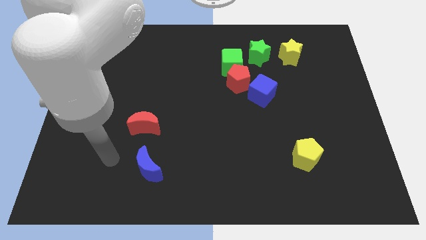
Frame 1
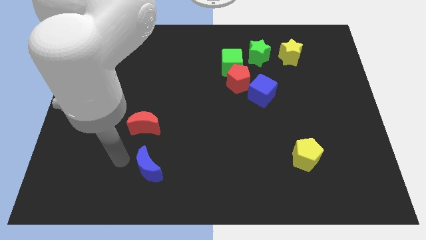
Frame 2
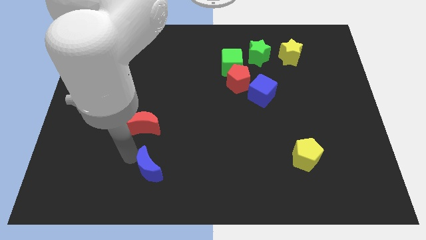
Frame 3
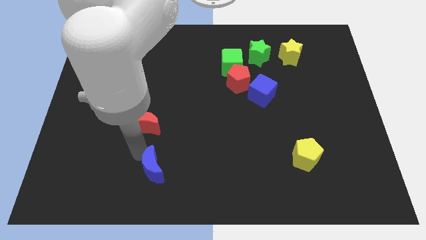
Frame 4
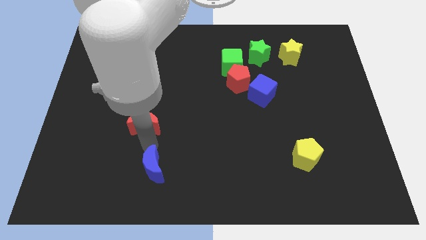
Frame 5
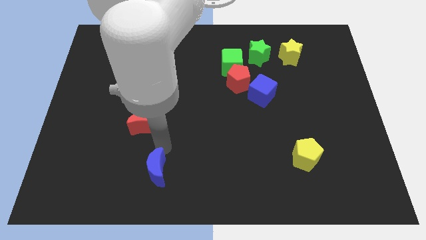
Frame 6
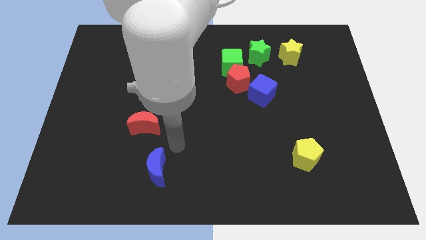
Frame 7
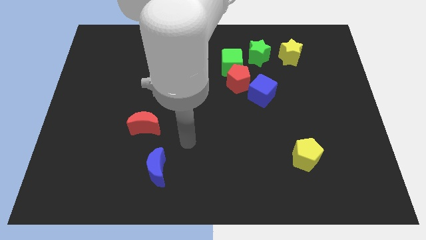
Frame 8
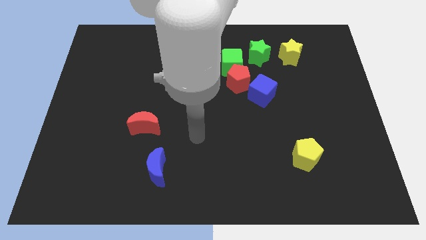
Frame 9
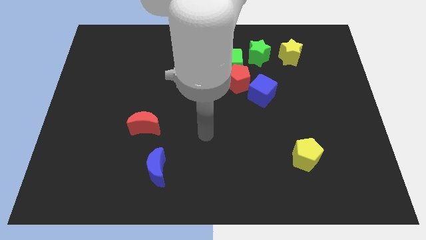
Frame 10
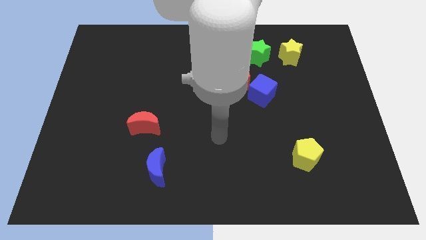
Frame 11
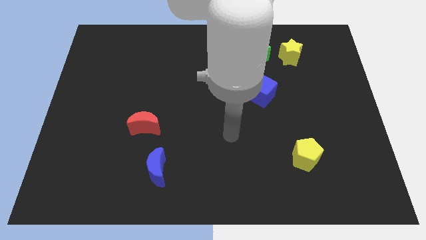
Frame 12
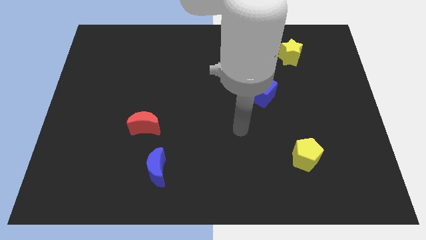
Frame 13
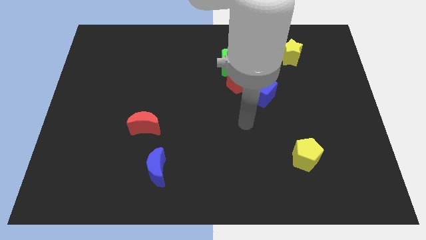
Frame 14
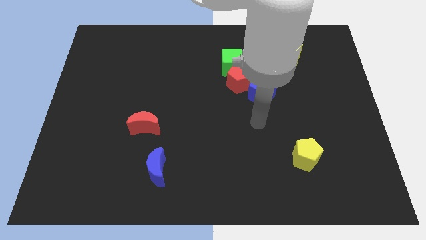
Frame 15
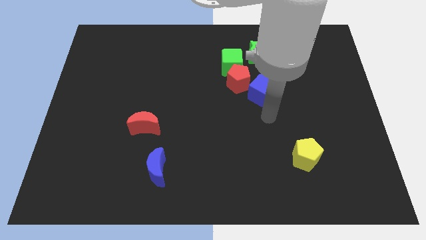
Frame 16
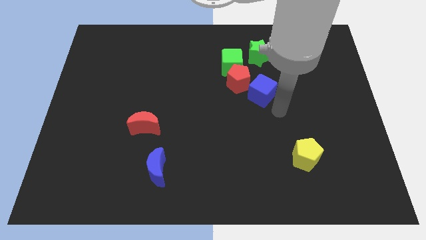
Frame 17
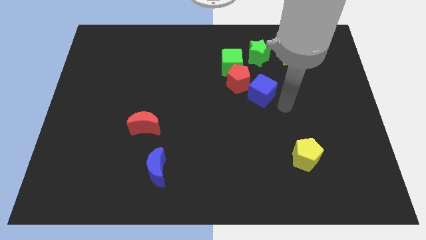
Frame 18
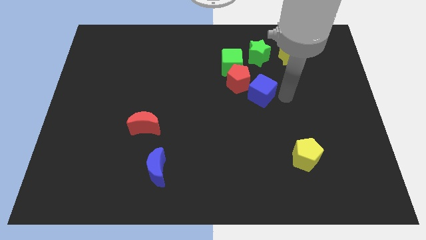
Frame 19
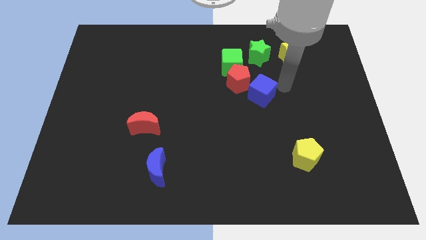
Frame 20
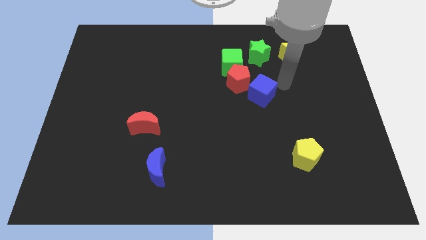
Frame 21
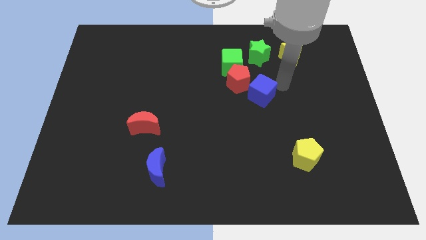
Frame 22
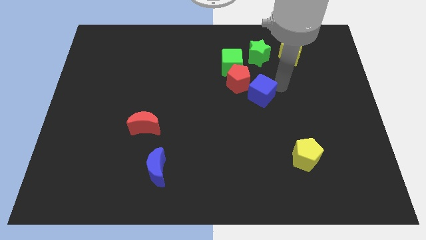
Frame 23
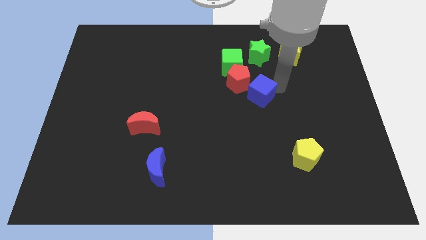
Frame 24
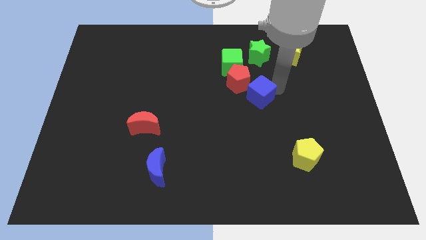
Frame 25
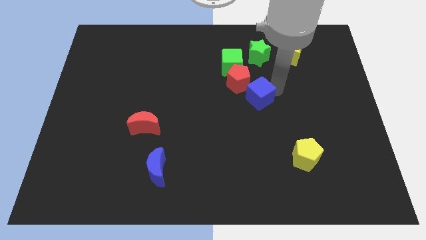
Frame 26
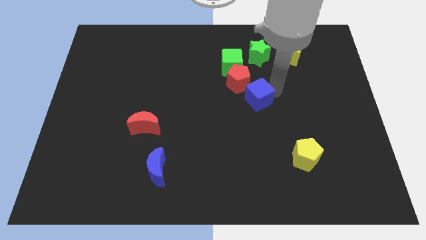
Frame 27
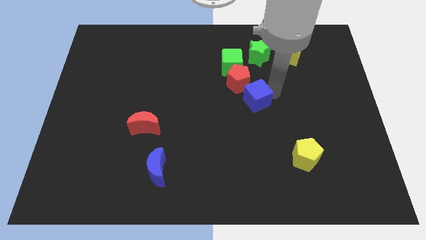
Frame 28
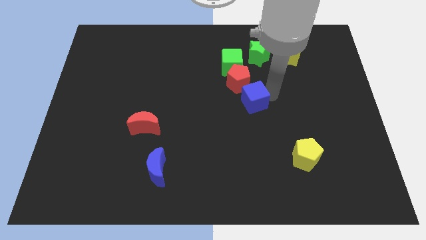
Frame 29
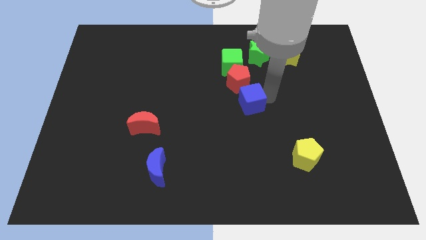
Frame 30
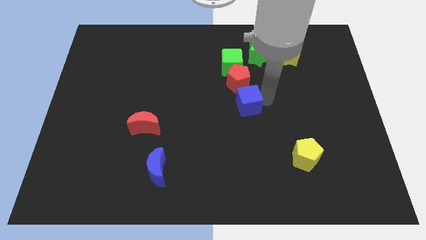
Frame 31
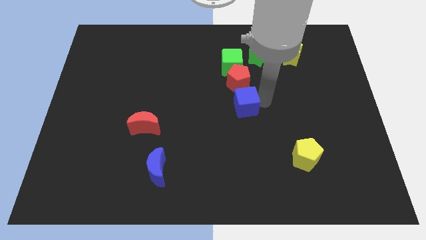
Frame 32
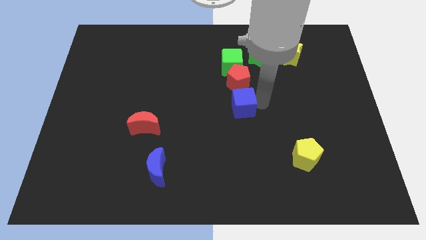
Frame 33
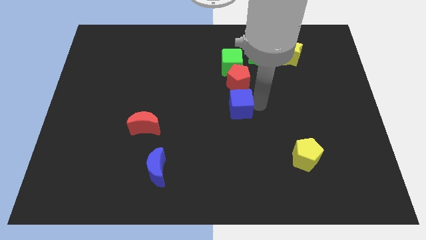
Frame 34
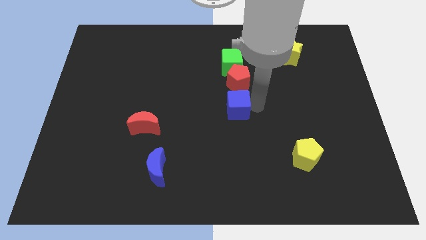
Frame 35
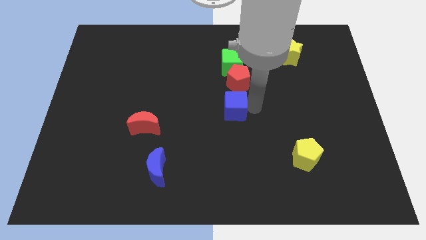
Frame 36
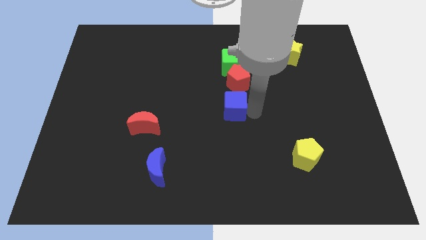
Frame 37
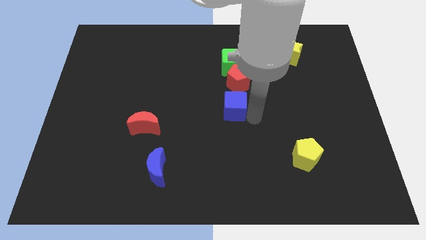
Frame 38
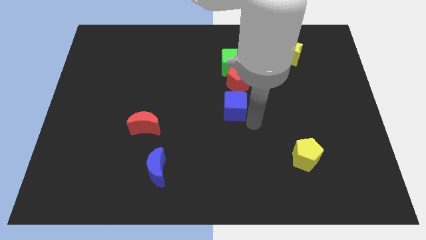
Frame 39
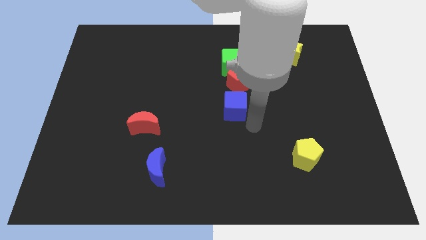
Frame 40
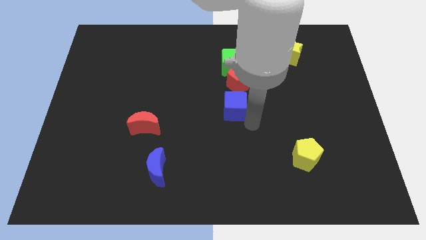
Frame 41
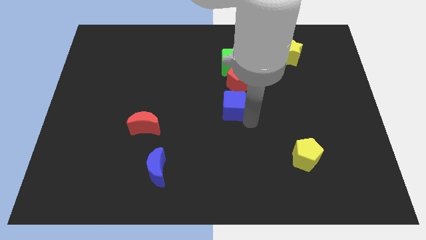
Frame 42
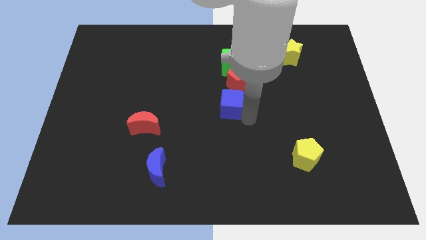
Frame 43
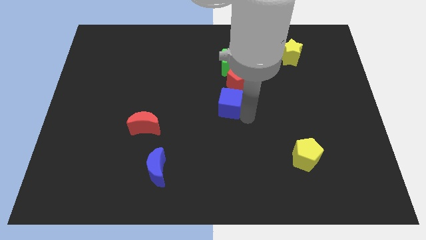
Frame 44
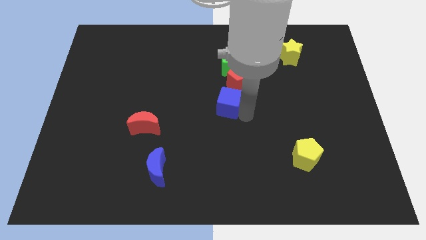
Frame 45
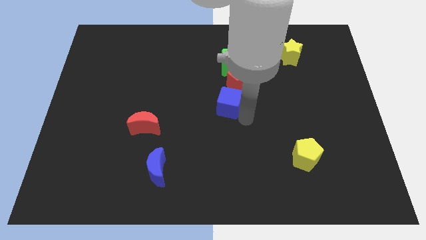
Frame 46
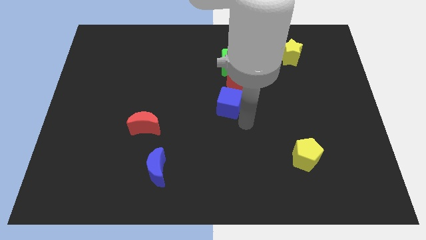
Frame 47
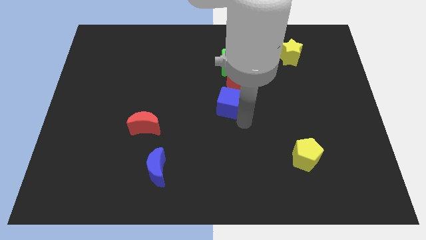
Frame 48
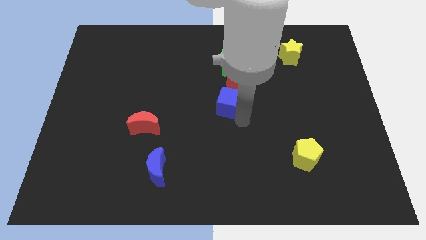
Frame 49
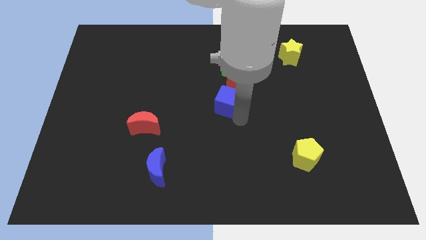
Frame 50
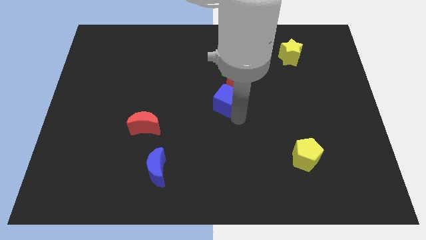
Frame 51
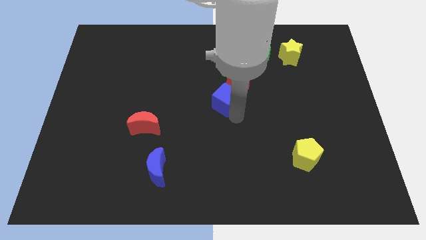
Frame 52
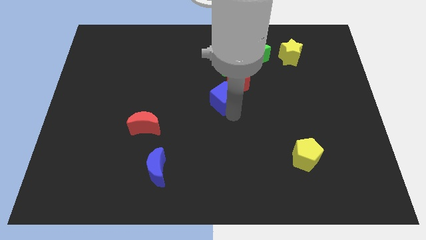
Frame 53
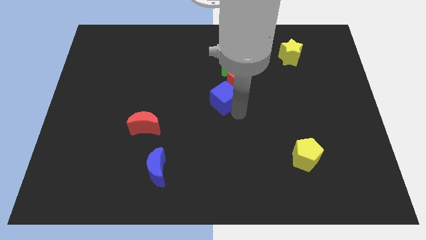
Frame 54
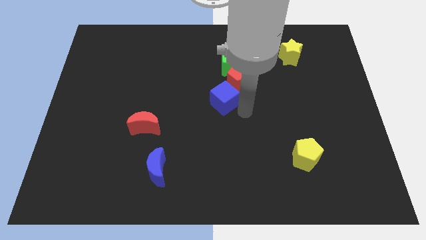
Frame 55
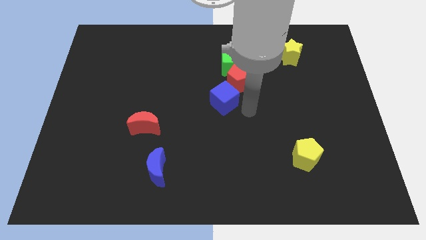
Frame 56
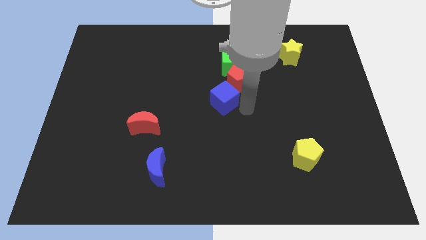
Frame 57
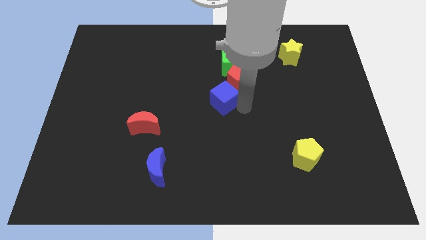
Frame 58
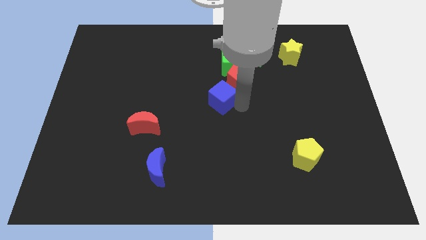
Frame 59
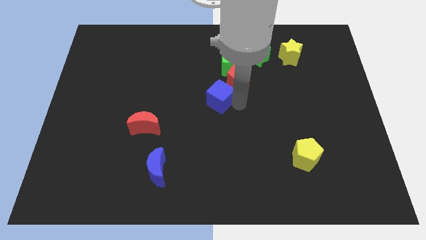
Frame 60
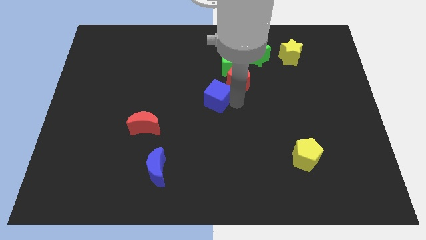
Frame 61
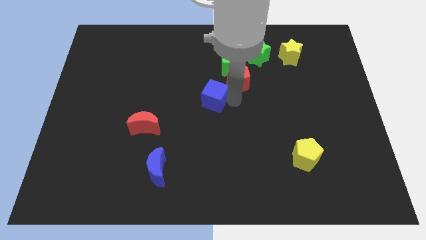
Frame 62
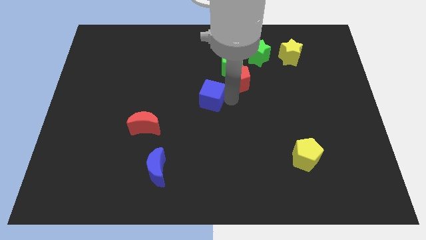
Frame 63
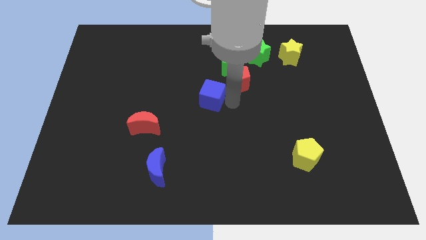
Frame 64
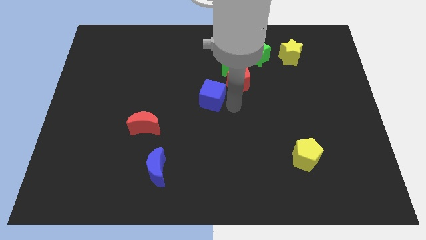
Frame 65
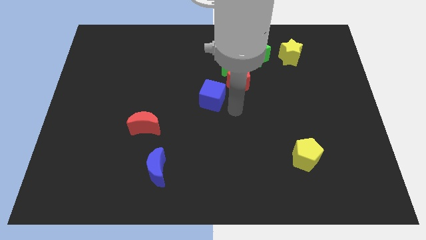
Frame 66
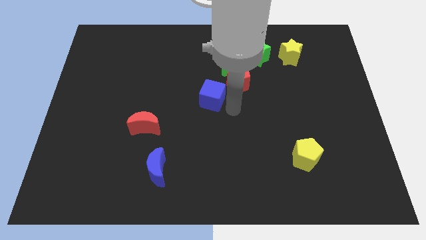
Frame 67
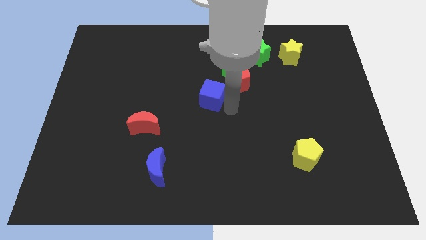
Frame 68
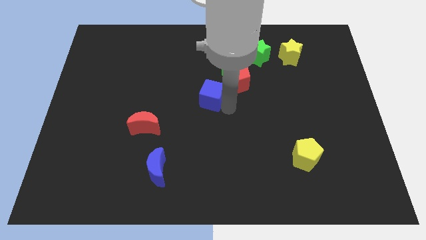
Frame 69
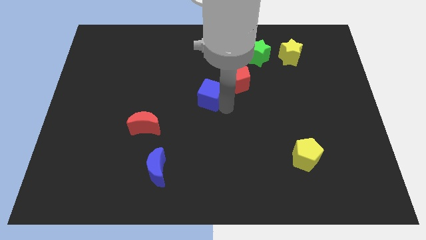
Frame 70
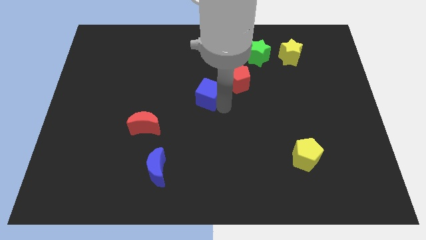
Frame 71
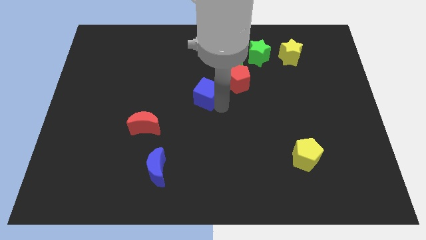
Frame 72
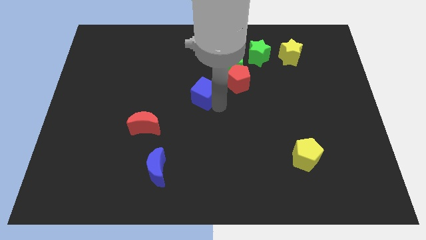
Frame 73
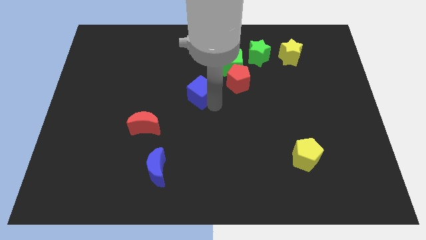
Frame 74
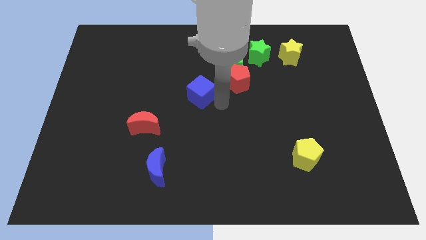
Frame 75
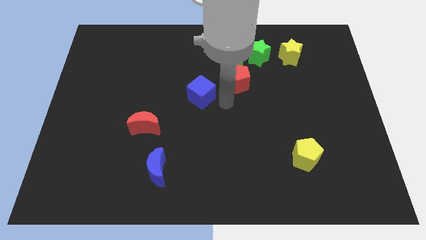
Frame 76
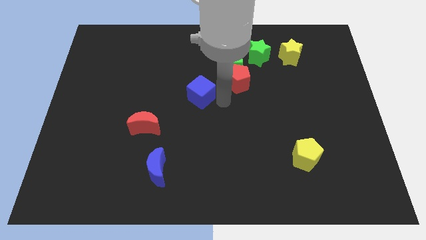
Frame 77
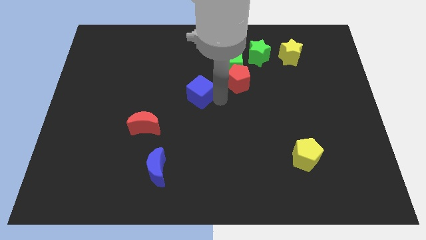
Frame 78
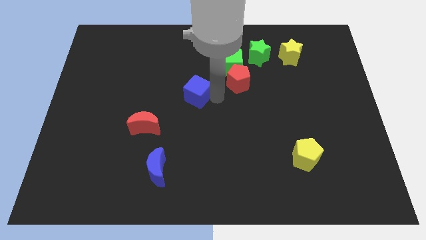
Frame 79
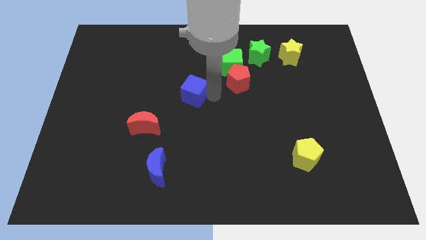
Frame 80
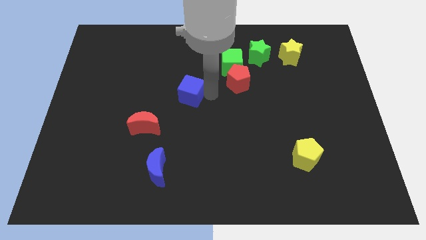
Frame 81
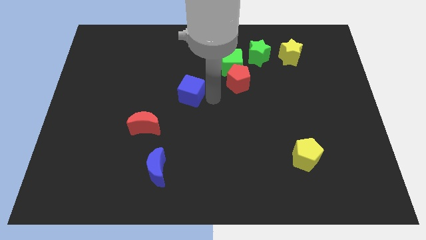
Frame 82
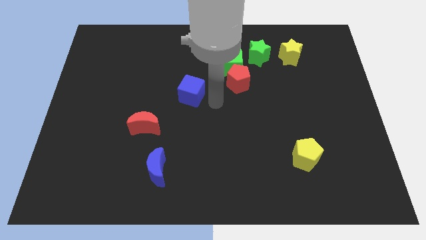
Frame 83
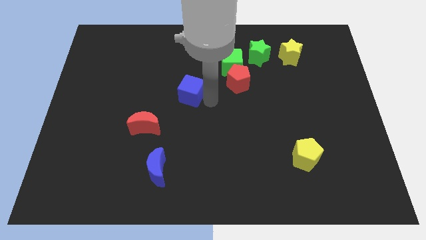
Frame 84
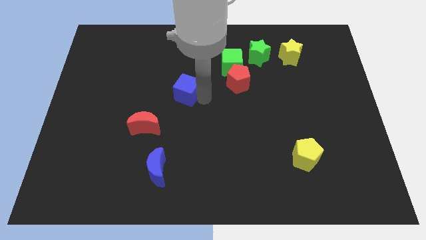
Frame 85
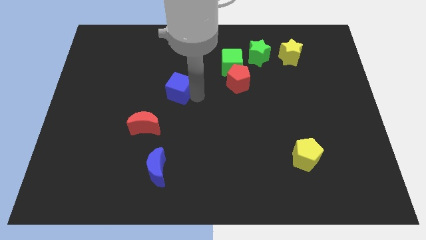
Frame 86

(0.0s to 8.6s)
slide the blue cube to the left
